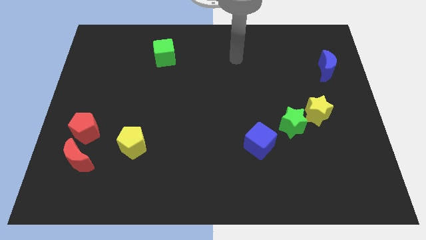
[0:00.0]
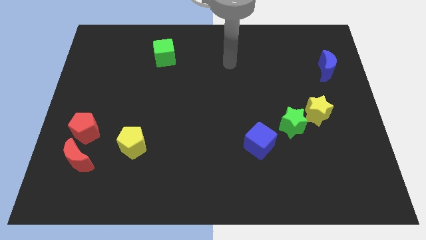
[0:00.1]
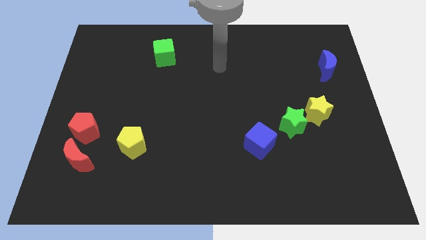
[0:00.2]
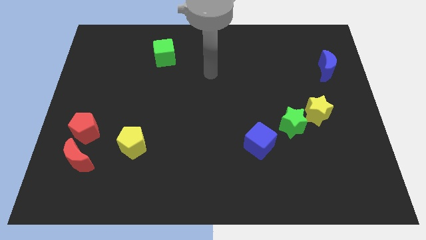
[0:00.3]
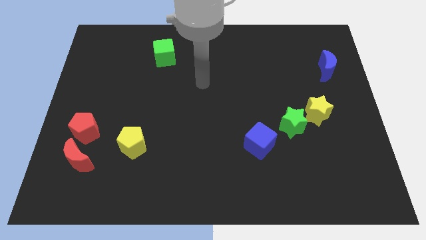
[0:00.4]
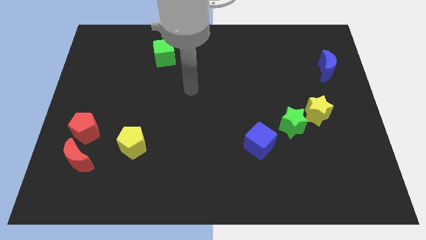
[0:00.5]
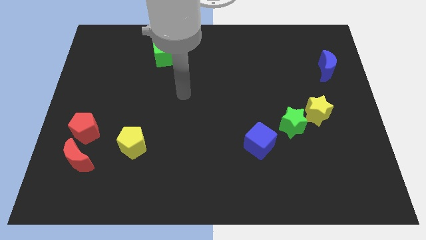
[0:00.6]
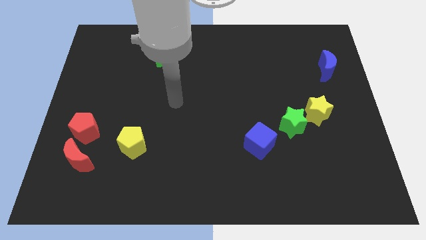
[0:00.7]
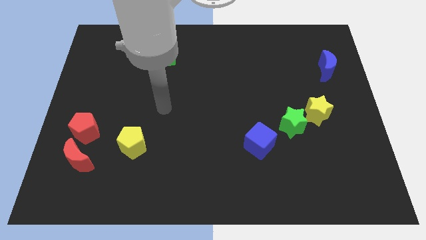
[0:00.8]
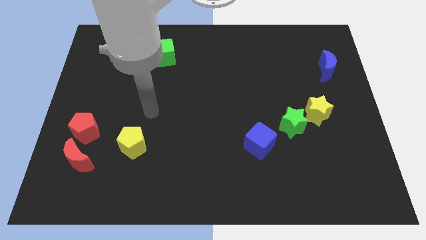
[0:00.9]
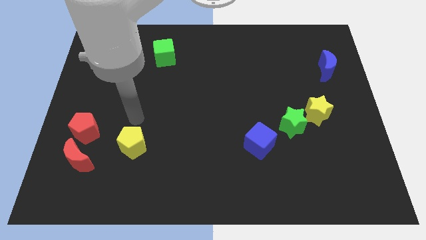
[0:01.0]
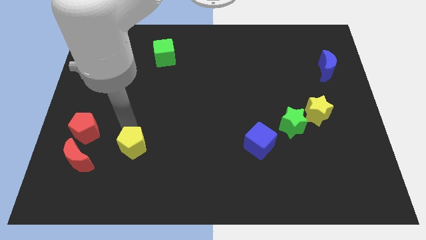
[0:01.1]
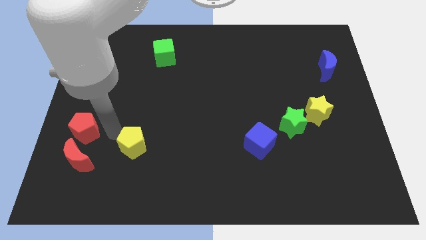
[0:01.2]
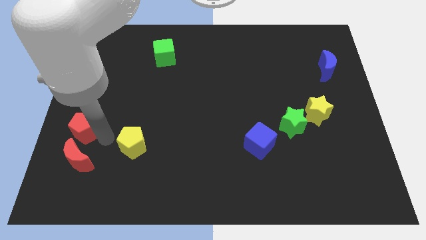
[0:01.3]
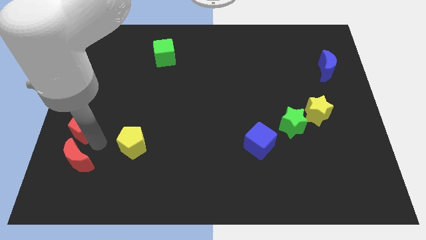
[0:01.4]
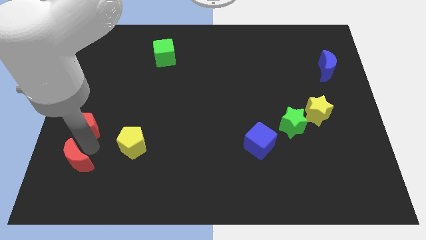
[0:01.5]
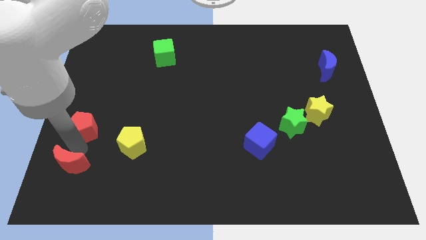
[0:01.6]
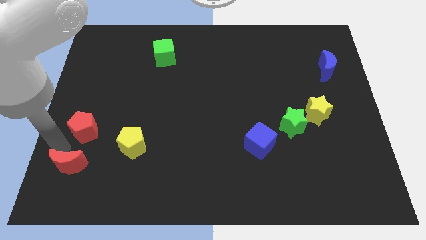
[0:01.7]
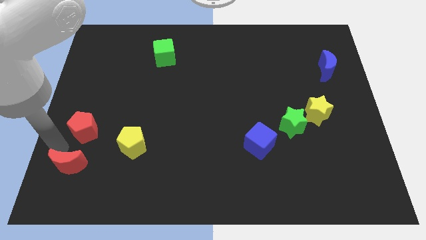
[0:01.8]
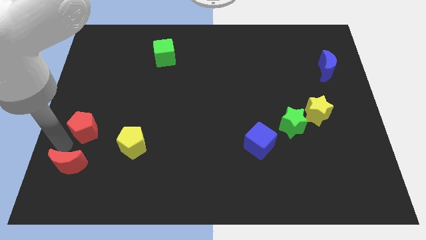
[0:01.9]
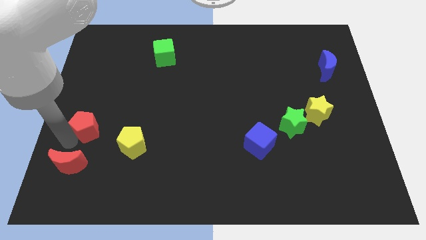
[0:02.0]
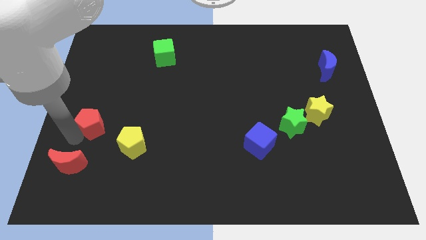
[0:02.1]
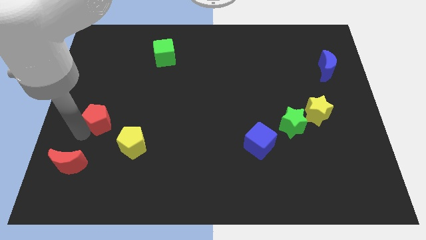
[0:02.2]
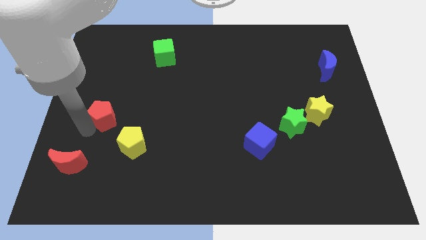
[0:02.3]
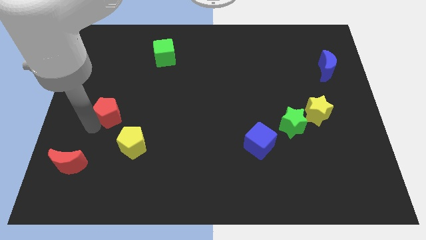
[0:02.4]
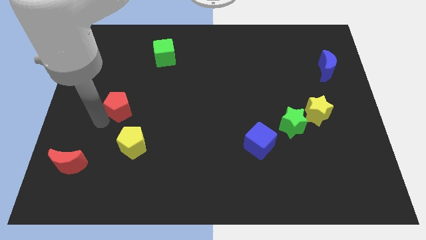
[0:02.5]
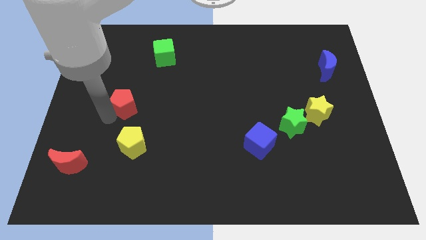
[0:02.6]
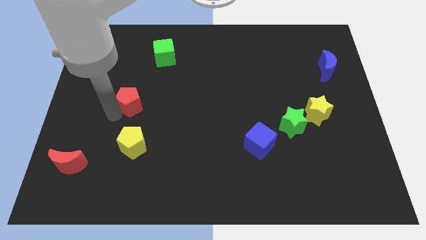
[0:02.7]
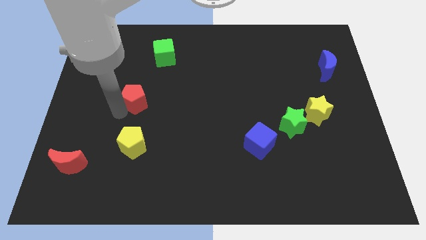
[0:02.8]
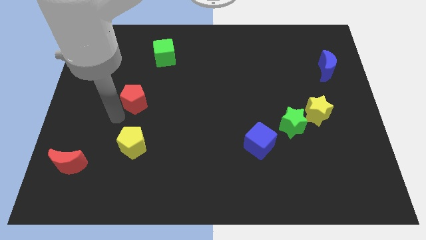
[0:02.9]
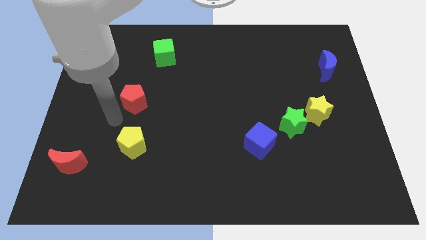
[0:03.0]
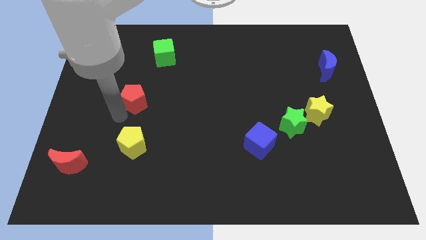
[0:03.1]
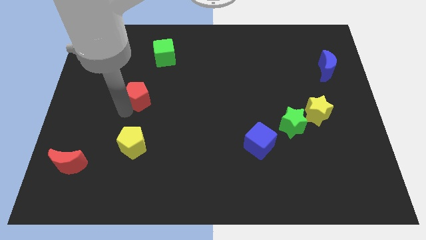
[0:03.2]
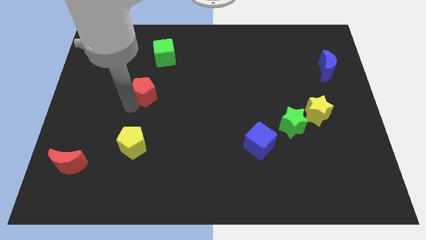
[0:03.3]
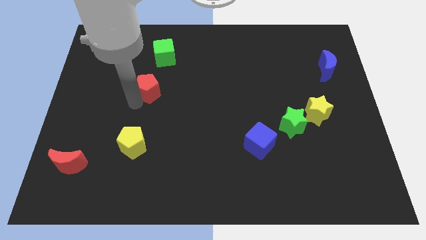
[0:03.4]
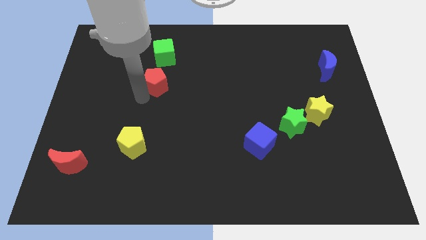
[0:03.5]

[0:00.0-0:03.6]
move the red pentagon up and right

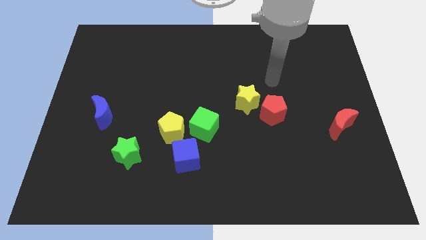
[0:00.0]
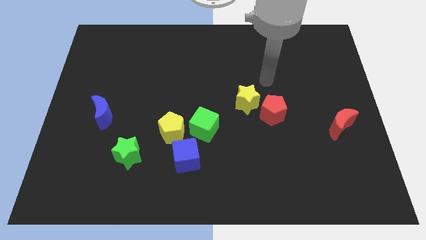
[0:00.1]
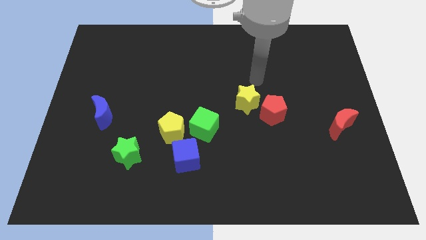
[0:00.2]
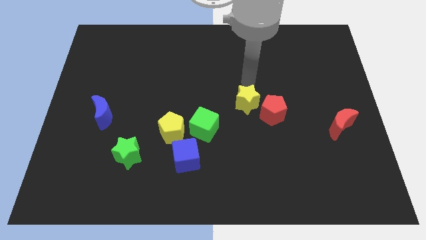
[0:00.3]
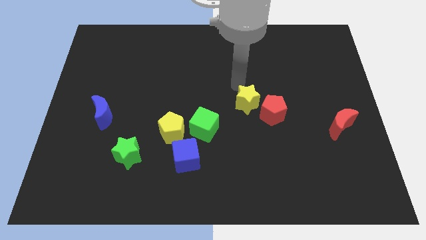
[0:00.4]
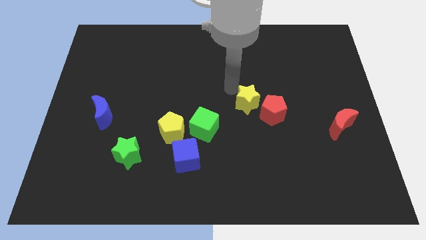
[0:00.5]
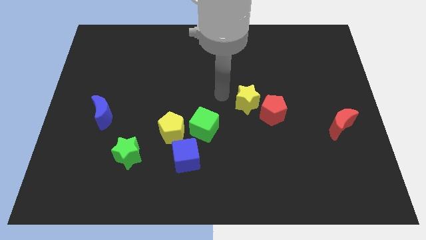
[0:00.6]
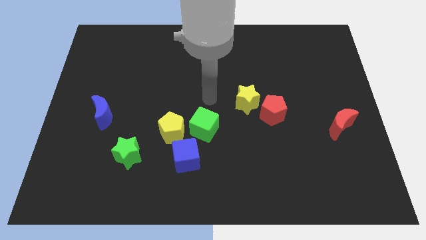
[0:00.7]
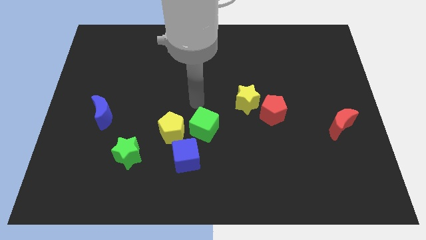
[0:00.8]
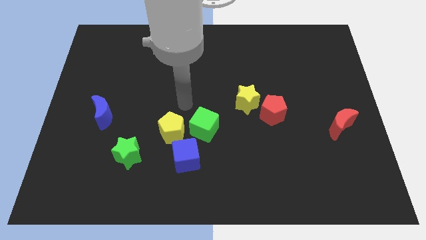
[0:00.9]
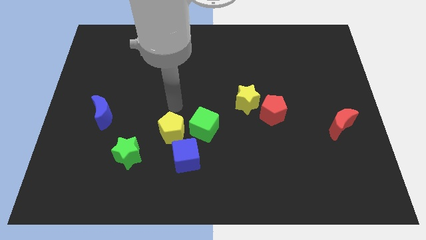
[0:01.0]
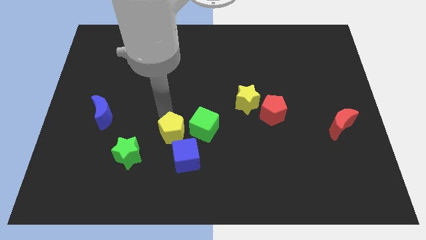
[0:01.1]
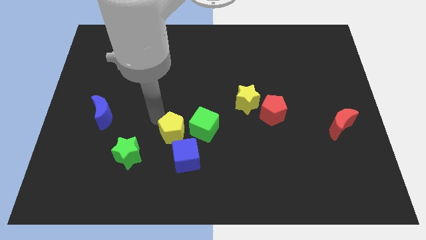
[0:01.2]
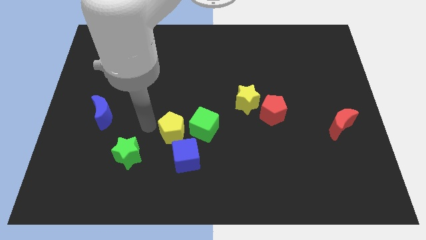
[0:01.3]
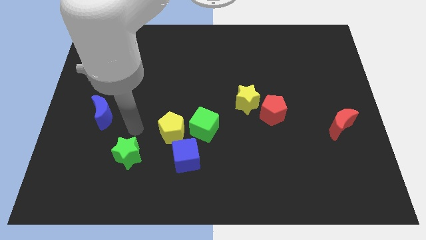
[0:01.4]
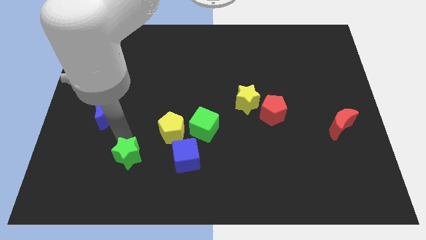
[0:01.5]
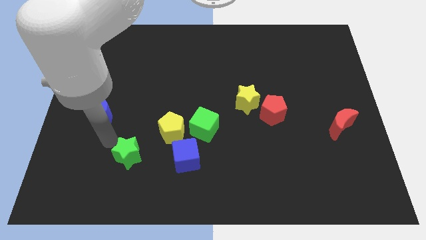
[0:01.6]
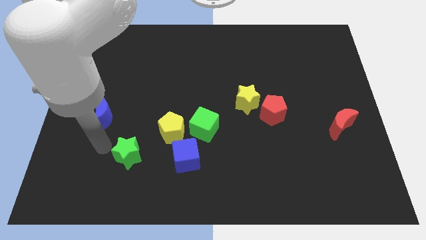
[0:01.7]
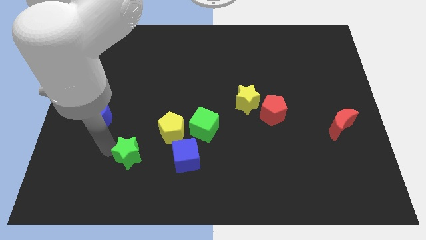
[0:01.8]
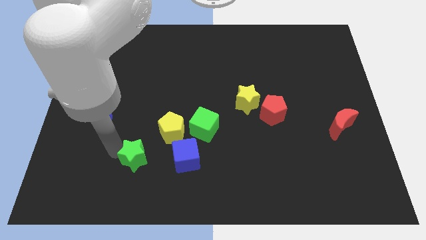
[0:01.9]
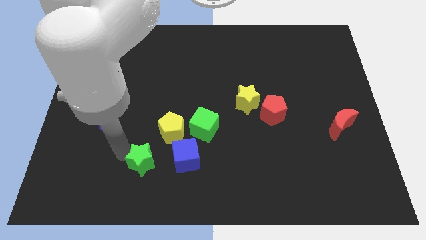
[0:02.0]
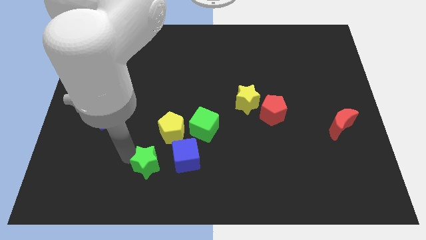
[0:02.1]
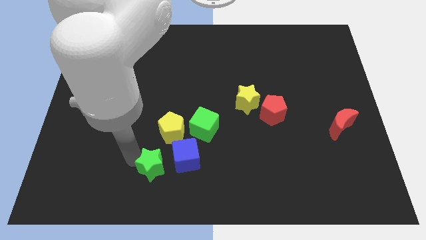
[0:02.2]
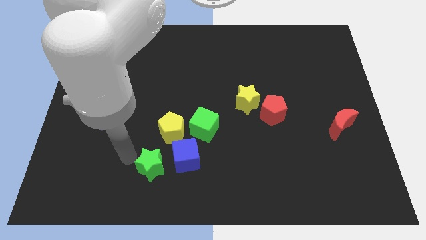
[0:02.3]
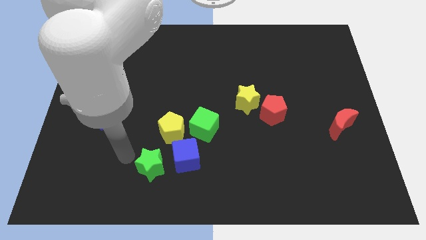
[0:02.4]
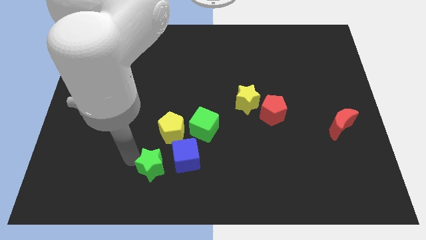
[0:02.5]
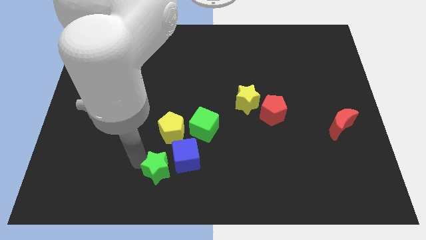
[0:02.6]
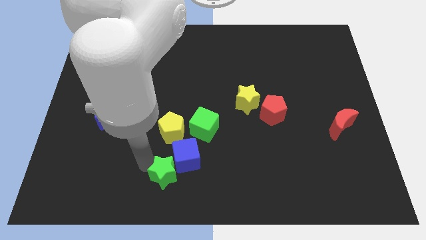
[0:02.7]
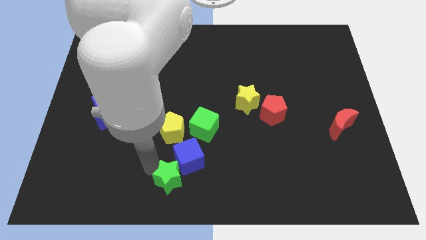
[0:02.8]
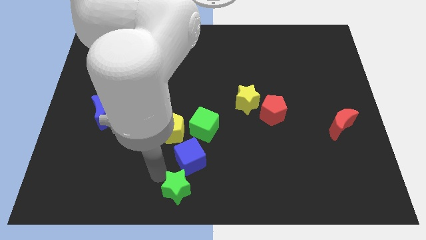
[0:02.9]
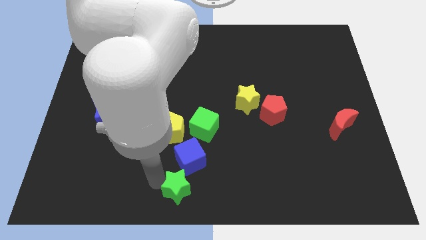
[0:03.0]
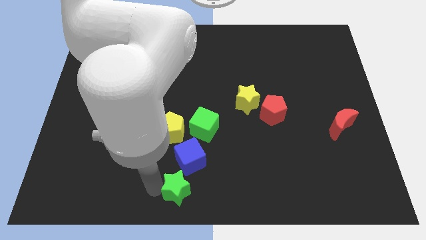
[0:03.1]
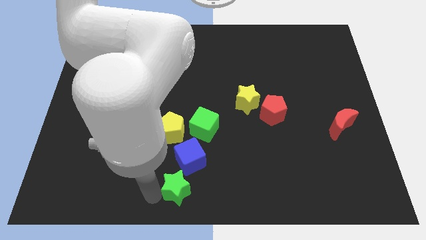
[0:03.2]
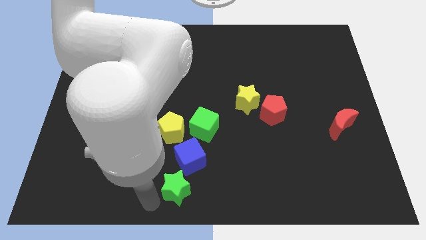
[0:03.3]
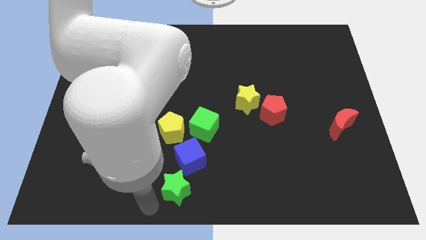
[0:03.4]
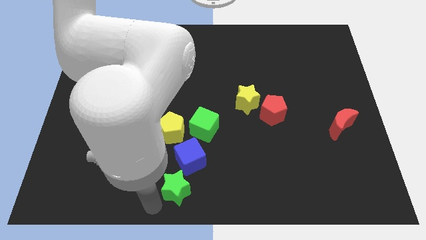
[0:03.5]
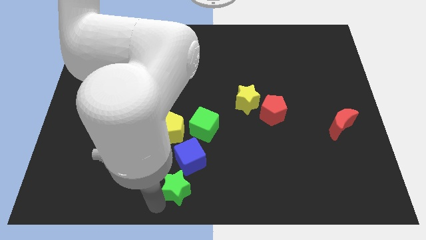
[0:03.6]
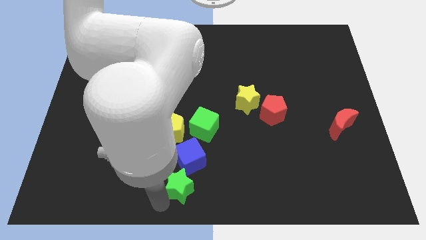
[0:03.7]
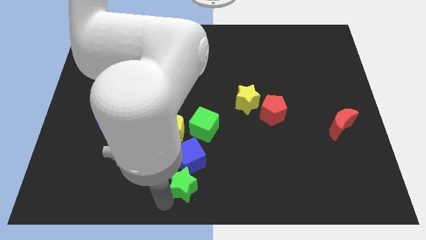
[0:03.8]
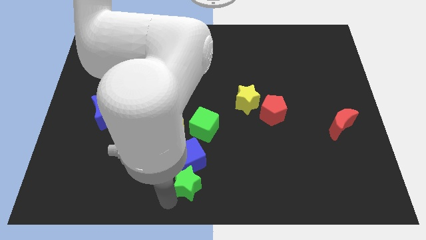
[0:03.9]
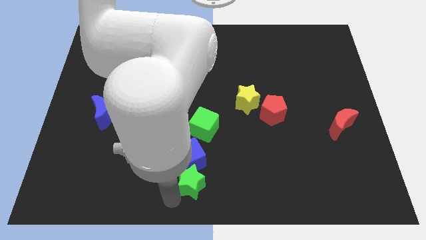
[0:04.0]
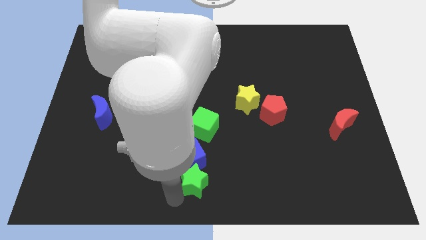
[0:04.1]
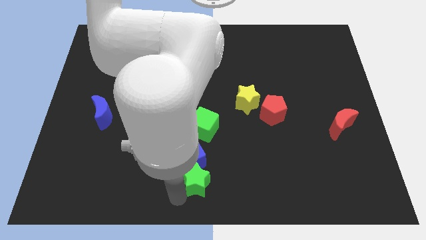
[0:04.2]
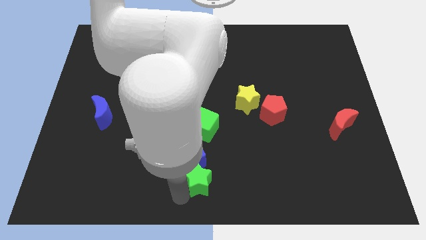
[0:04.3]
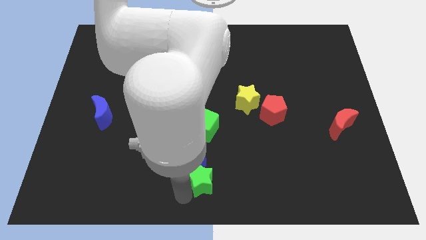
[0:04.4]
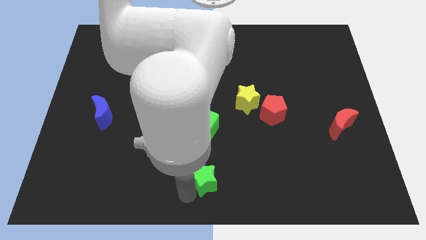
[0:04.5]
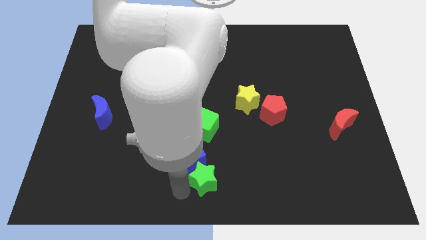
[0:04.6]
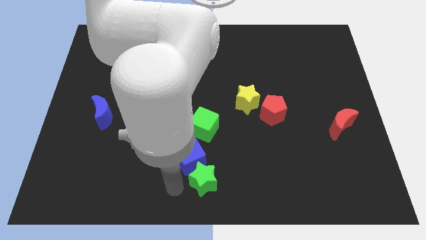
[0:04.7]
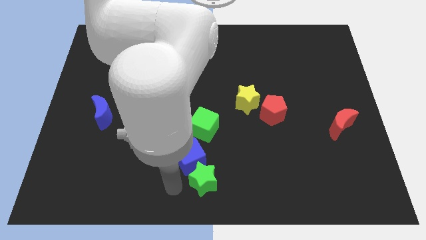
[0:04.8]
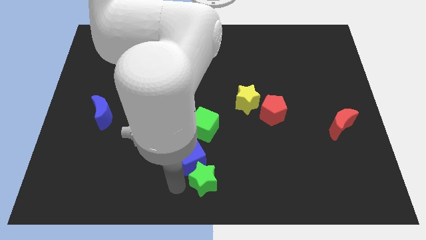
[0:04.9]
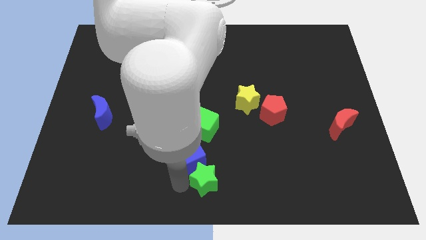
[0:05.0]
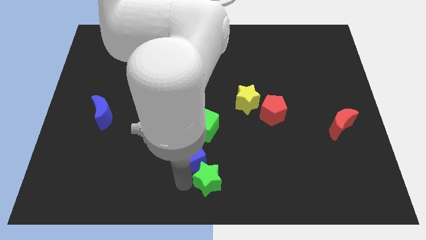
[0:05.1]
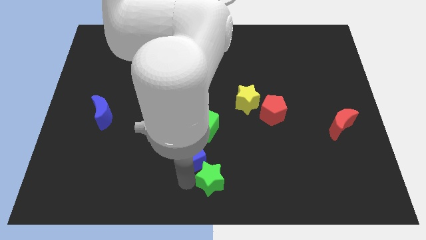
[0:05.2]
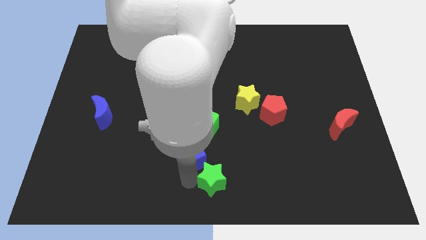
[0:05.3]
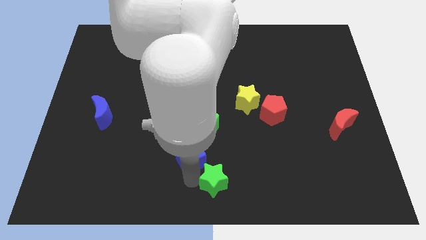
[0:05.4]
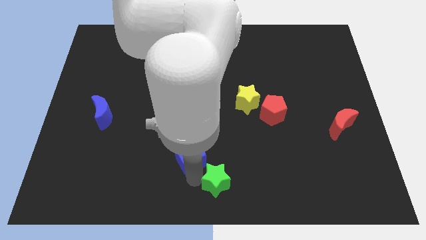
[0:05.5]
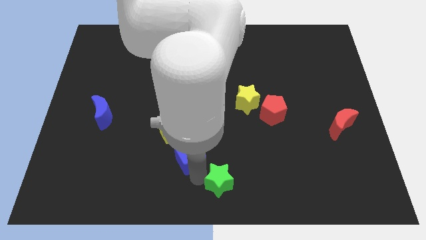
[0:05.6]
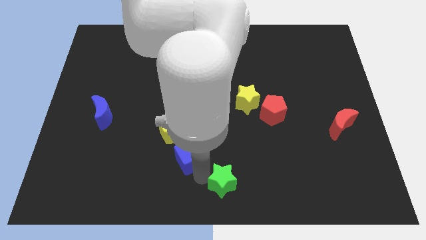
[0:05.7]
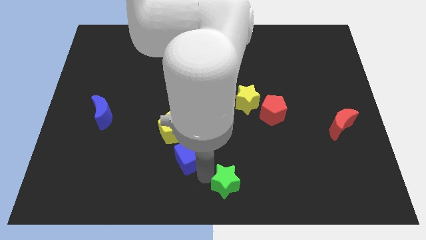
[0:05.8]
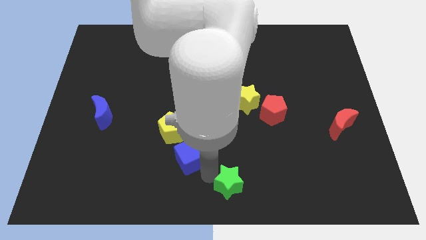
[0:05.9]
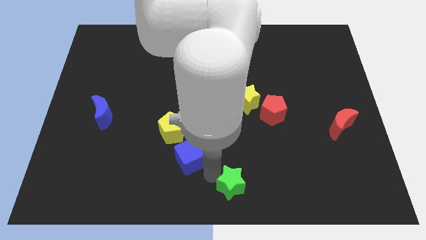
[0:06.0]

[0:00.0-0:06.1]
push the green star to the right
